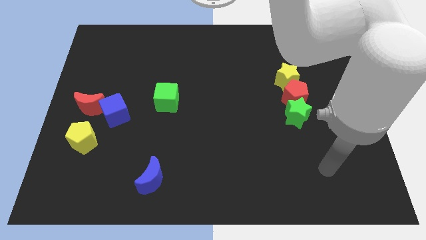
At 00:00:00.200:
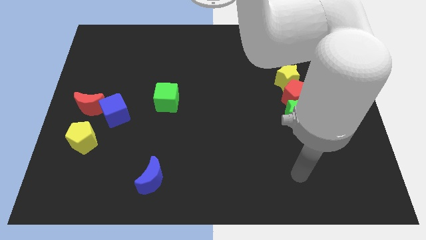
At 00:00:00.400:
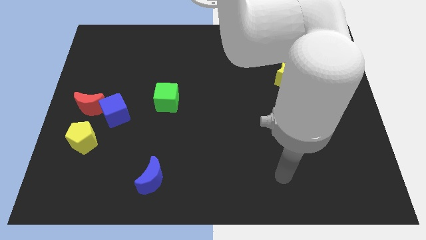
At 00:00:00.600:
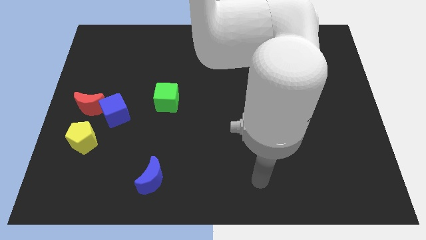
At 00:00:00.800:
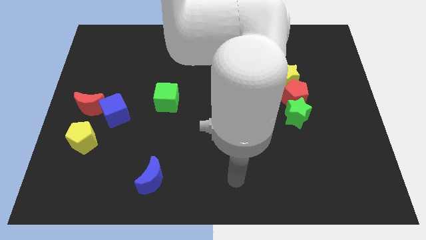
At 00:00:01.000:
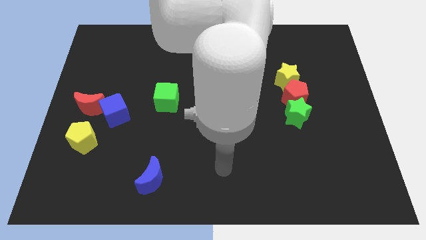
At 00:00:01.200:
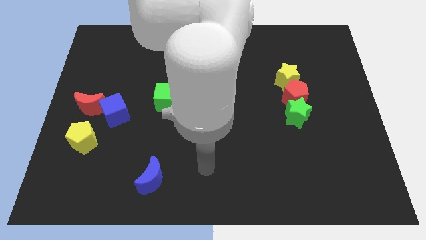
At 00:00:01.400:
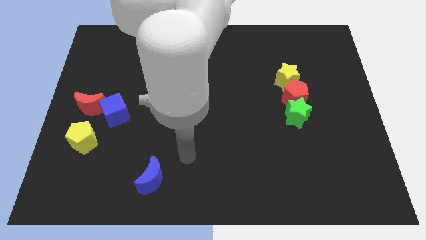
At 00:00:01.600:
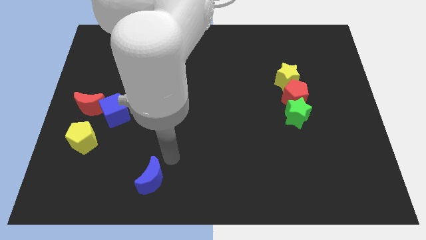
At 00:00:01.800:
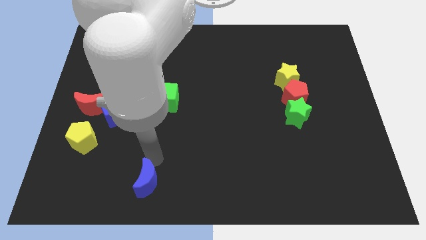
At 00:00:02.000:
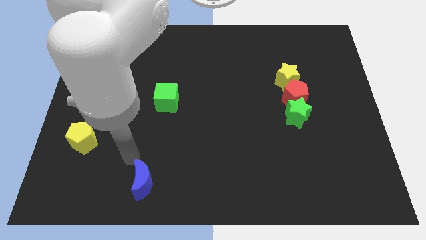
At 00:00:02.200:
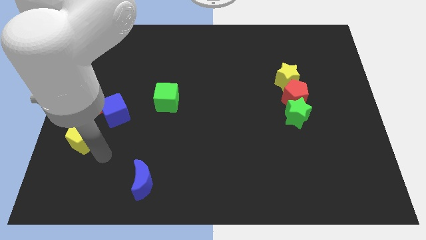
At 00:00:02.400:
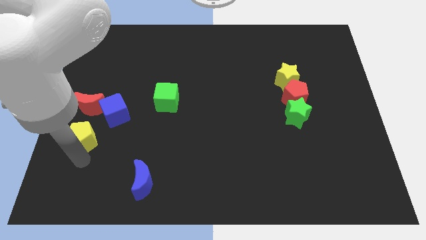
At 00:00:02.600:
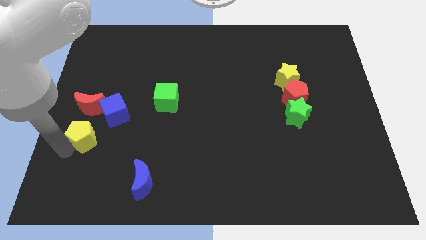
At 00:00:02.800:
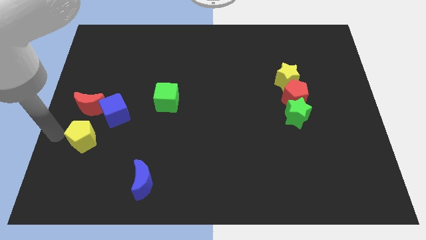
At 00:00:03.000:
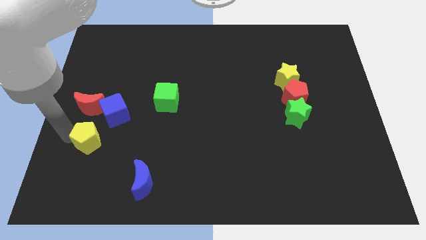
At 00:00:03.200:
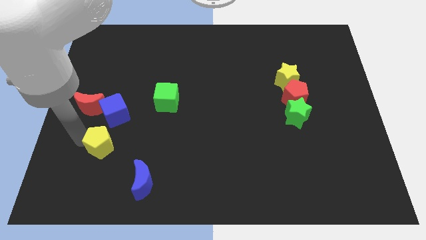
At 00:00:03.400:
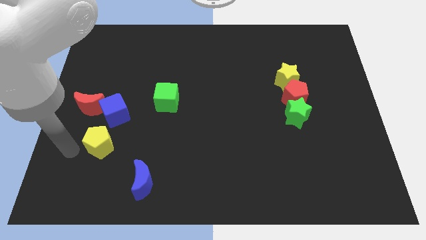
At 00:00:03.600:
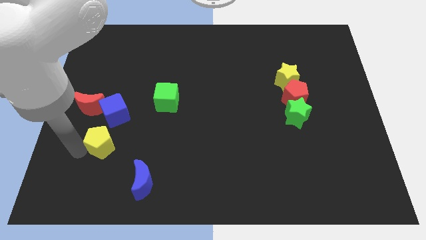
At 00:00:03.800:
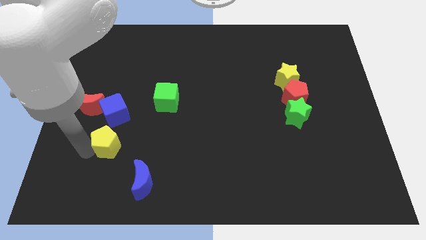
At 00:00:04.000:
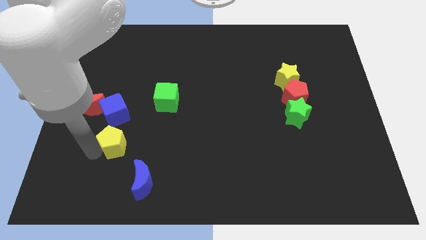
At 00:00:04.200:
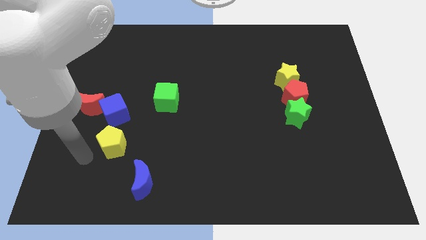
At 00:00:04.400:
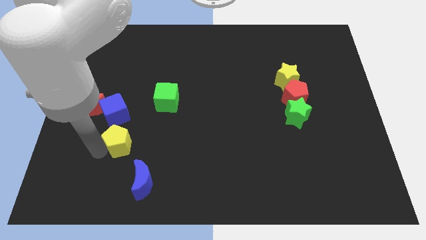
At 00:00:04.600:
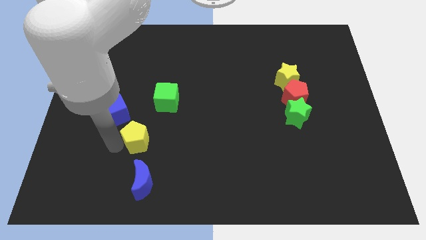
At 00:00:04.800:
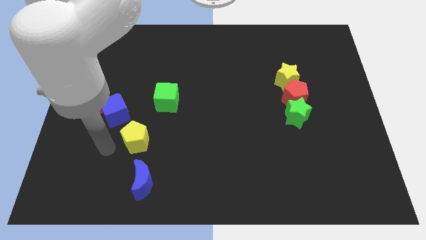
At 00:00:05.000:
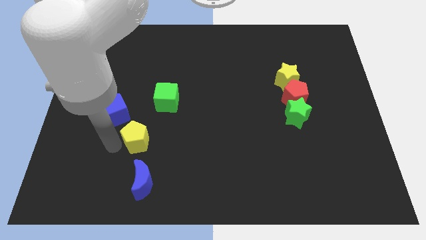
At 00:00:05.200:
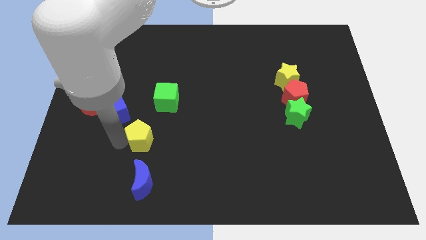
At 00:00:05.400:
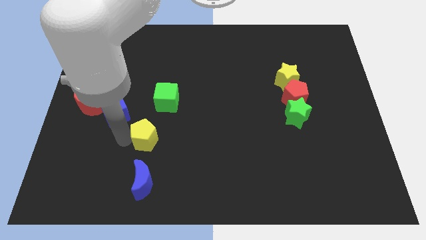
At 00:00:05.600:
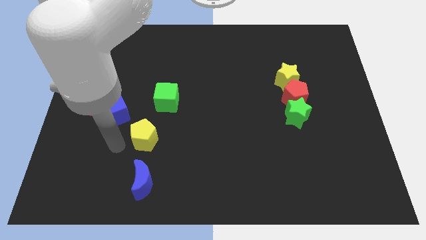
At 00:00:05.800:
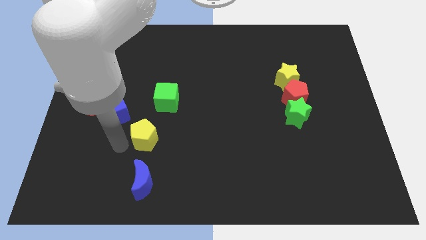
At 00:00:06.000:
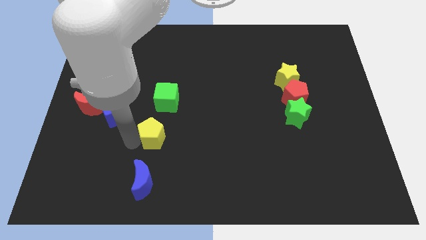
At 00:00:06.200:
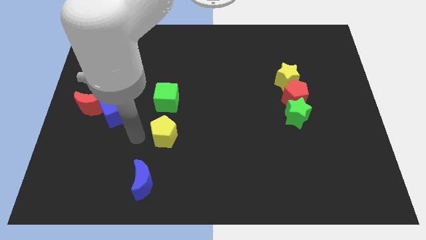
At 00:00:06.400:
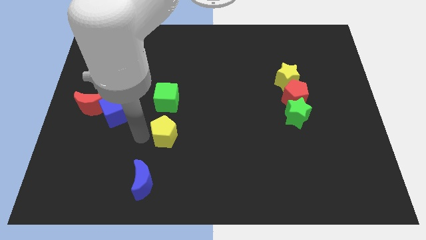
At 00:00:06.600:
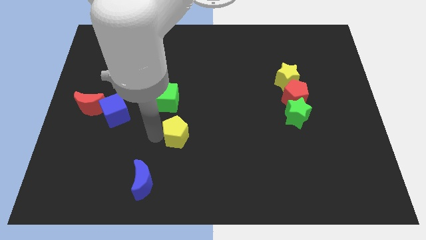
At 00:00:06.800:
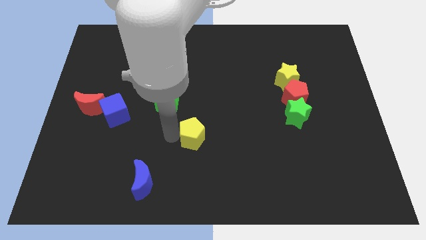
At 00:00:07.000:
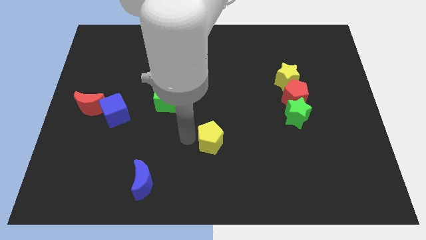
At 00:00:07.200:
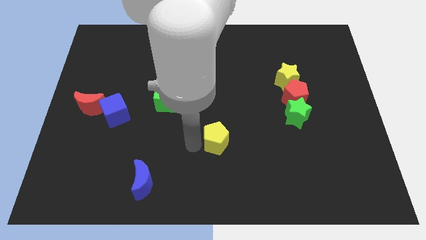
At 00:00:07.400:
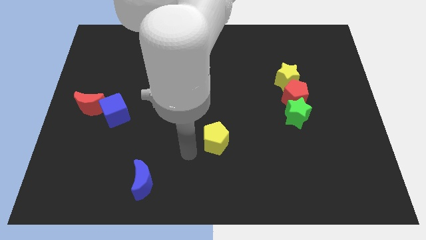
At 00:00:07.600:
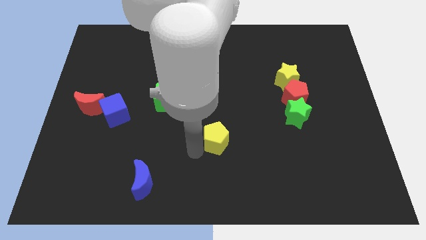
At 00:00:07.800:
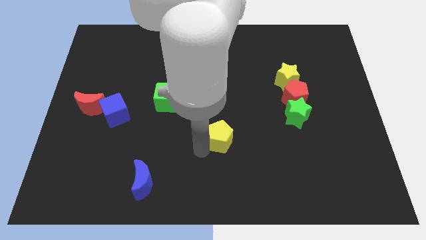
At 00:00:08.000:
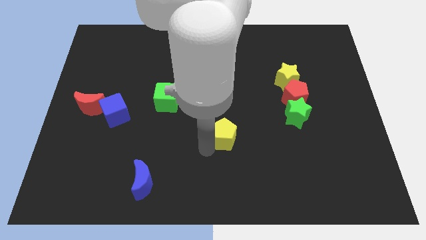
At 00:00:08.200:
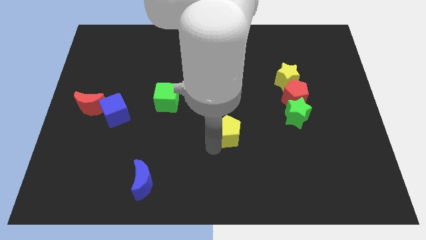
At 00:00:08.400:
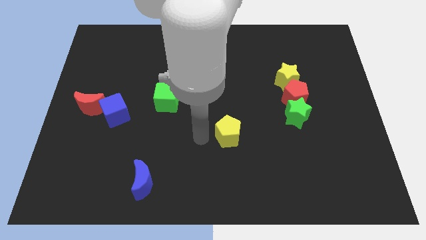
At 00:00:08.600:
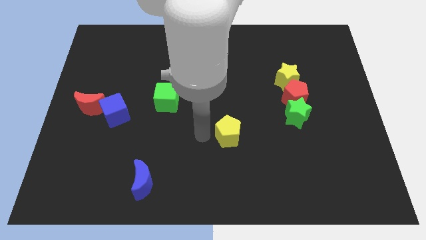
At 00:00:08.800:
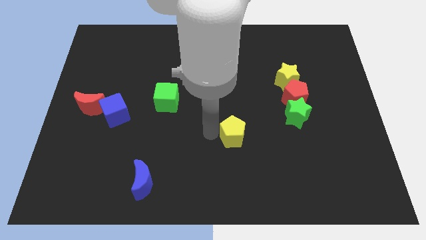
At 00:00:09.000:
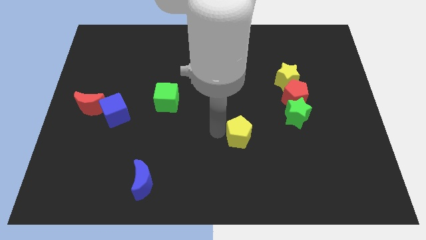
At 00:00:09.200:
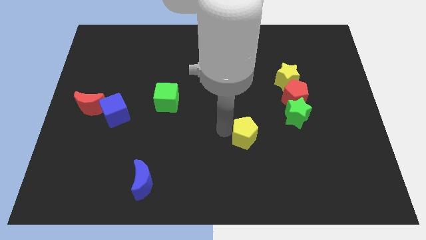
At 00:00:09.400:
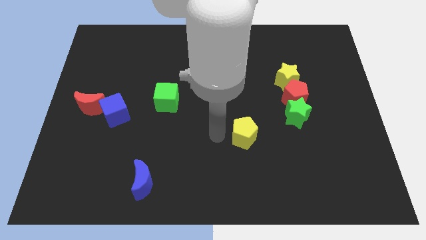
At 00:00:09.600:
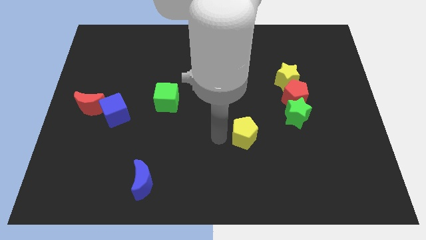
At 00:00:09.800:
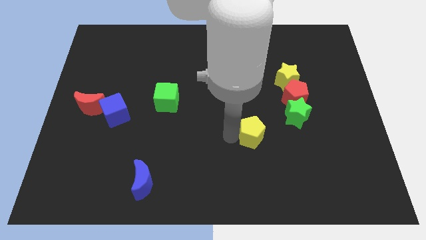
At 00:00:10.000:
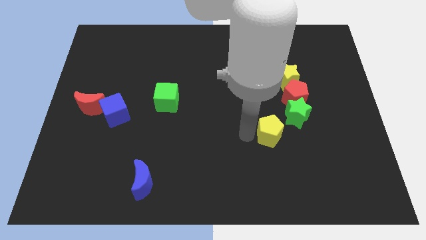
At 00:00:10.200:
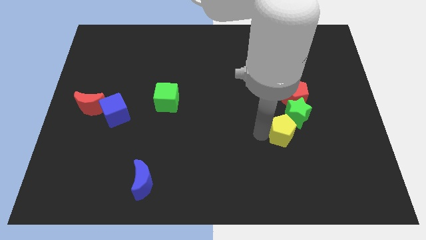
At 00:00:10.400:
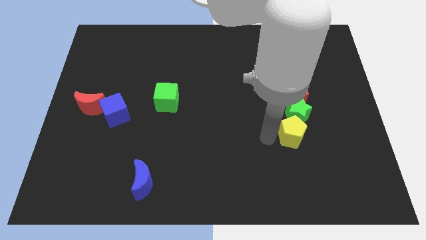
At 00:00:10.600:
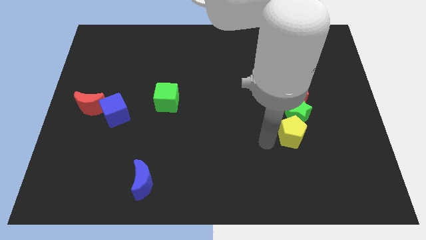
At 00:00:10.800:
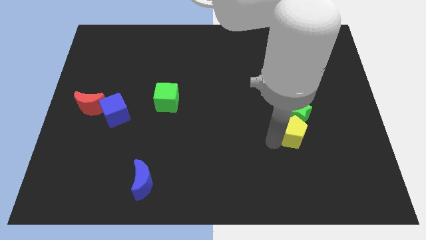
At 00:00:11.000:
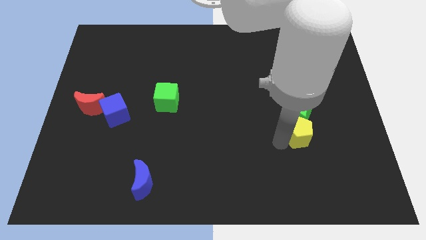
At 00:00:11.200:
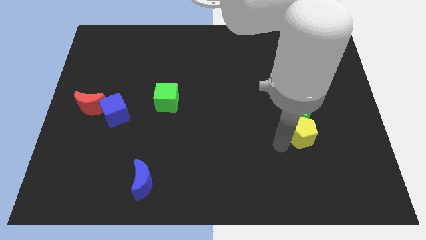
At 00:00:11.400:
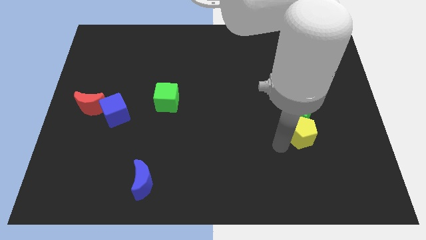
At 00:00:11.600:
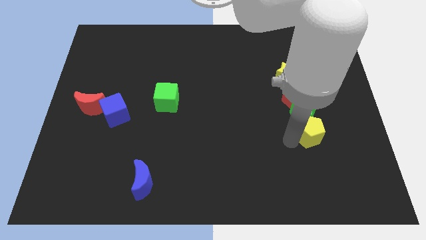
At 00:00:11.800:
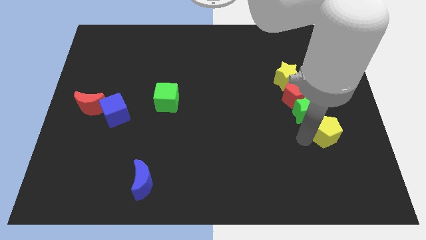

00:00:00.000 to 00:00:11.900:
push the yellow pentagon to the bottom right of the red pentagon
